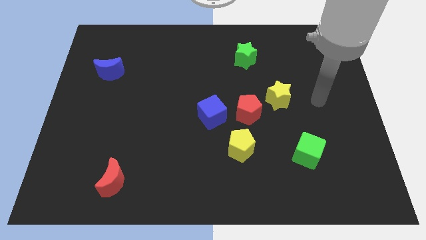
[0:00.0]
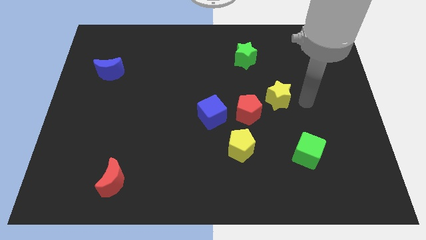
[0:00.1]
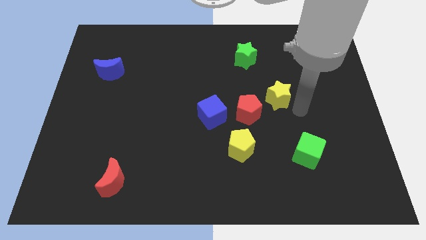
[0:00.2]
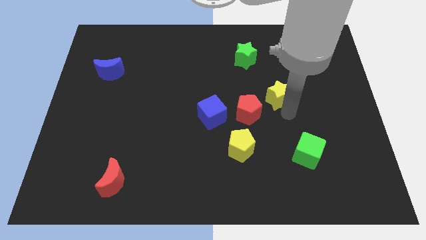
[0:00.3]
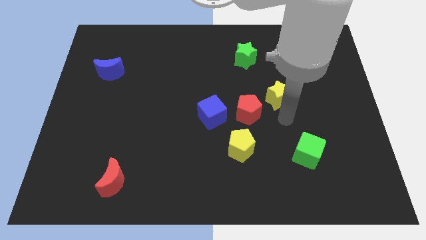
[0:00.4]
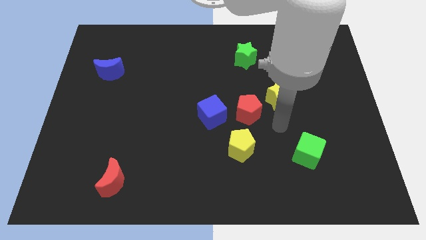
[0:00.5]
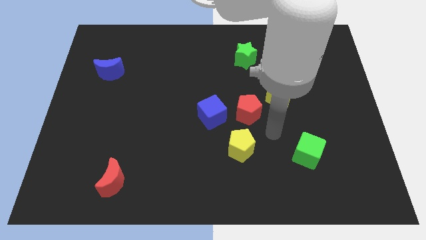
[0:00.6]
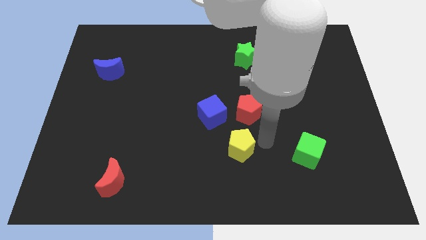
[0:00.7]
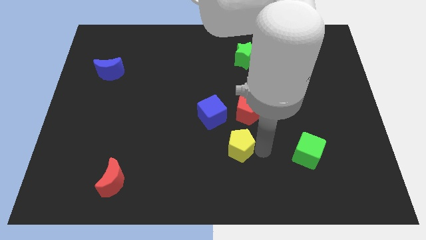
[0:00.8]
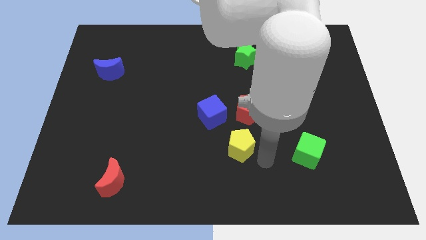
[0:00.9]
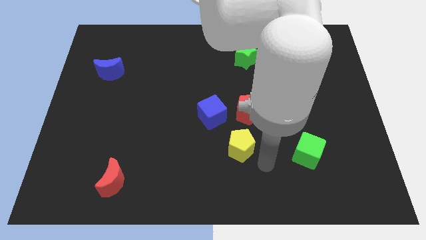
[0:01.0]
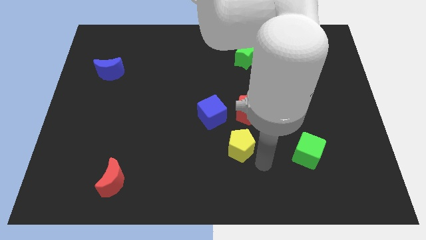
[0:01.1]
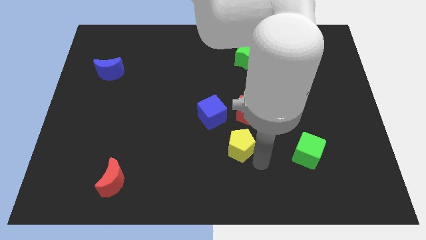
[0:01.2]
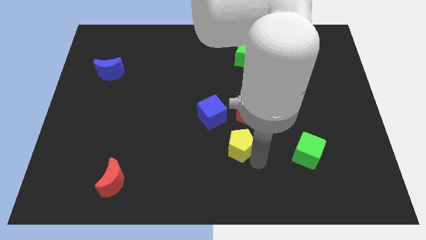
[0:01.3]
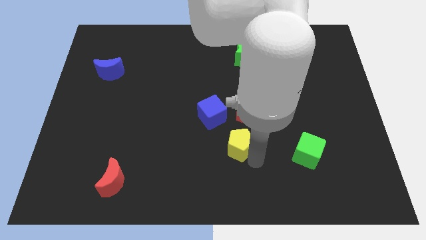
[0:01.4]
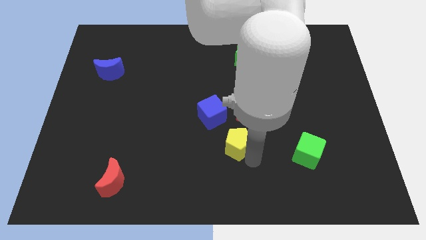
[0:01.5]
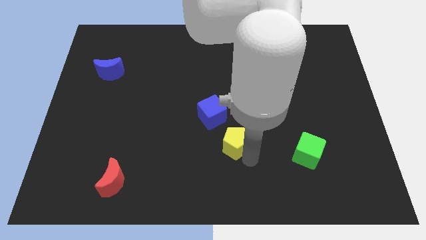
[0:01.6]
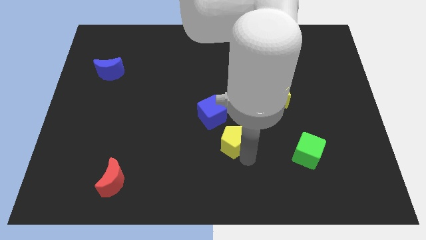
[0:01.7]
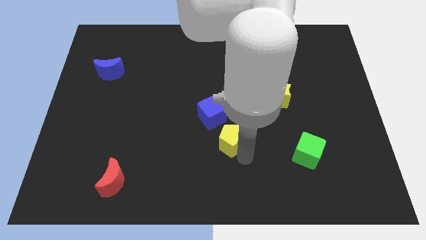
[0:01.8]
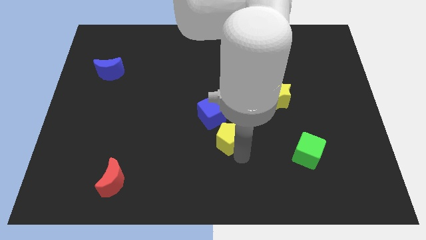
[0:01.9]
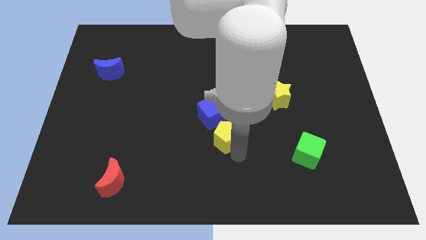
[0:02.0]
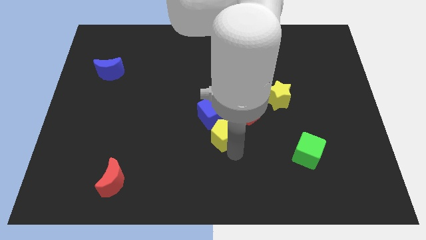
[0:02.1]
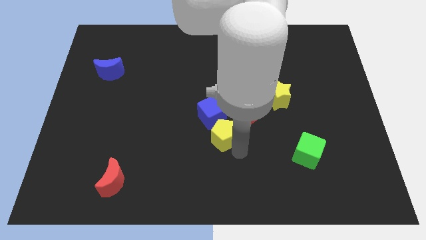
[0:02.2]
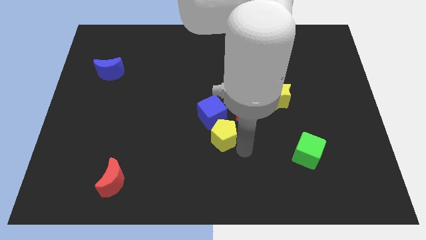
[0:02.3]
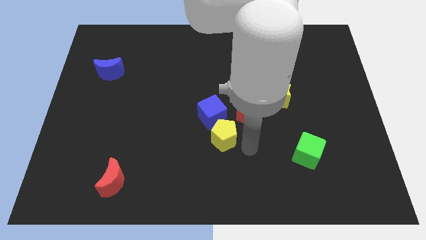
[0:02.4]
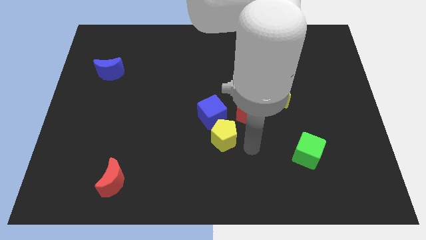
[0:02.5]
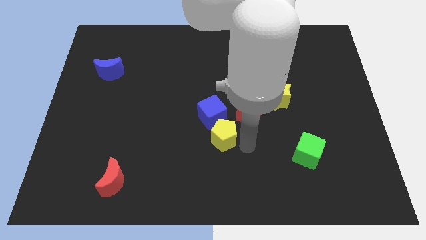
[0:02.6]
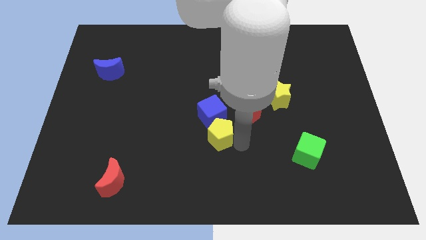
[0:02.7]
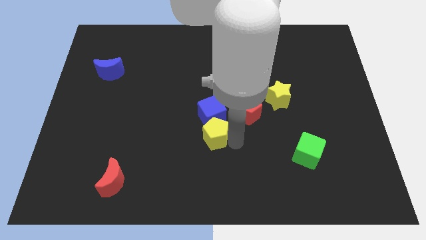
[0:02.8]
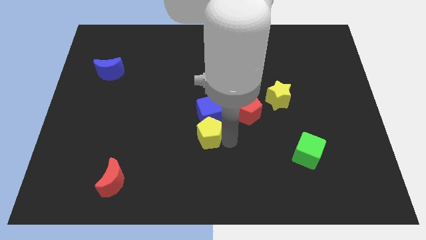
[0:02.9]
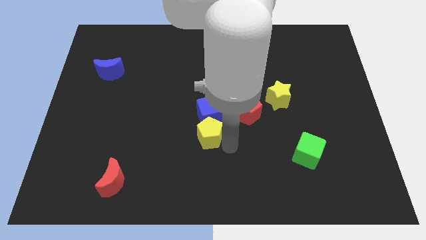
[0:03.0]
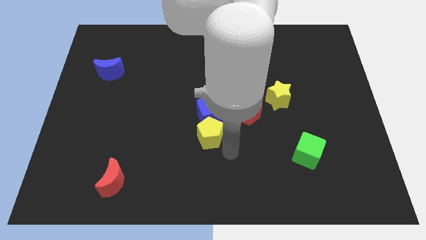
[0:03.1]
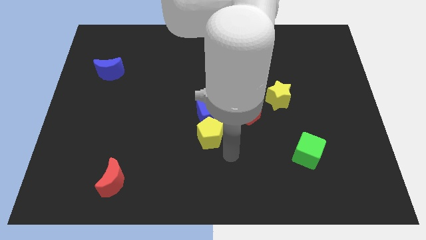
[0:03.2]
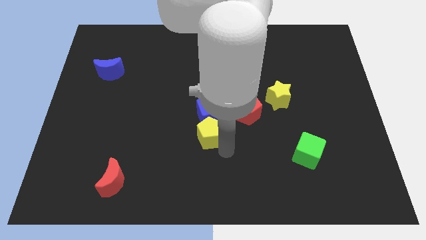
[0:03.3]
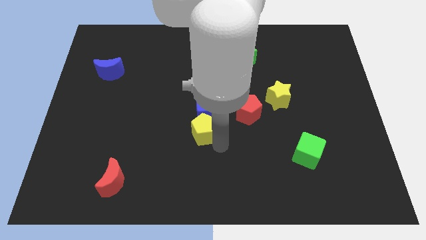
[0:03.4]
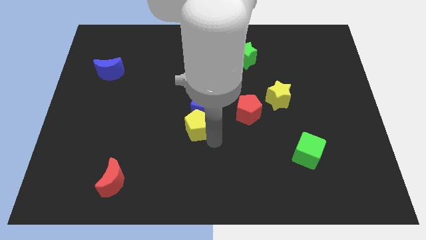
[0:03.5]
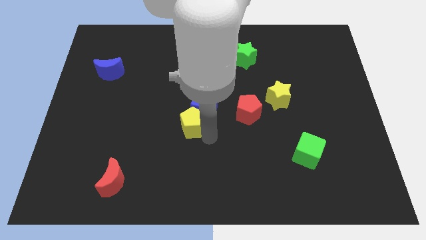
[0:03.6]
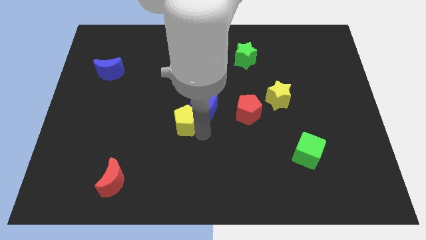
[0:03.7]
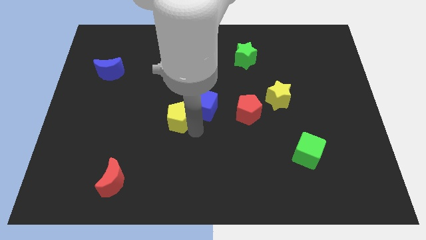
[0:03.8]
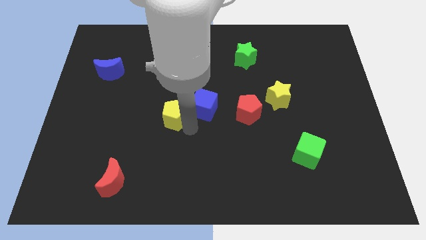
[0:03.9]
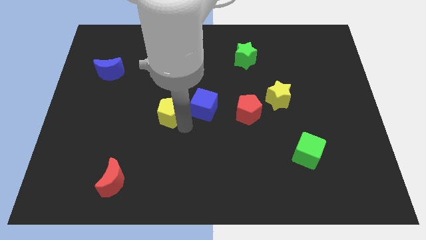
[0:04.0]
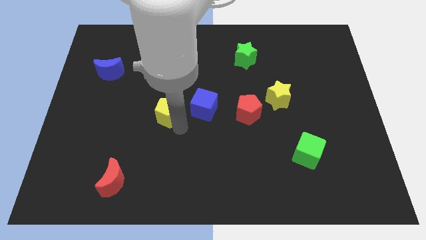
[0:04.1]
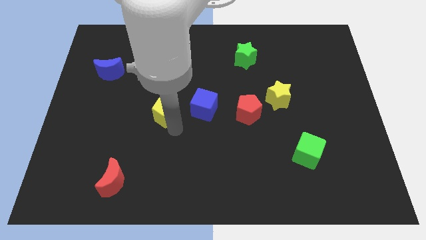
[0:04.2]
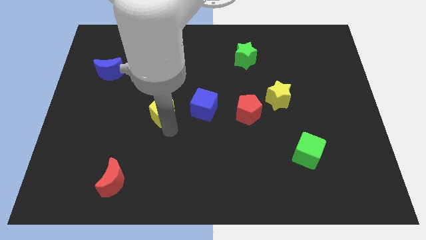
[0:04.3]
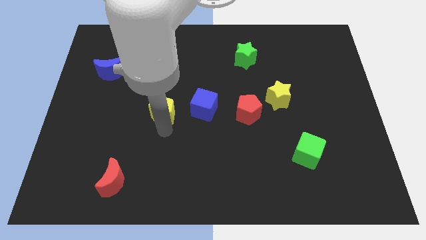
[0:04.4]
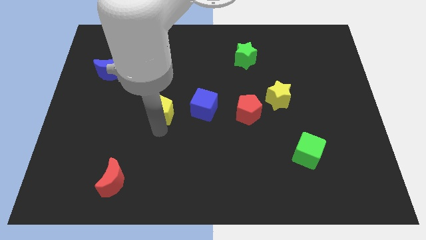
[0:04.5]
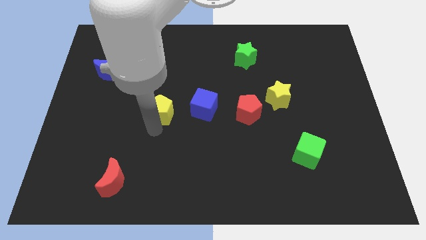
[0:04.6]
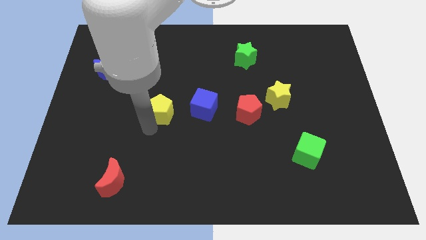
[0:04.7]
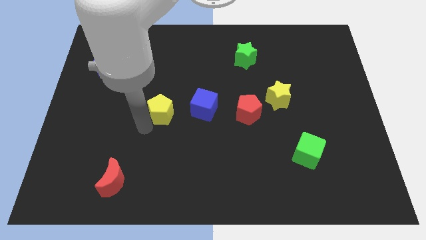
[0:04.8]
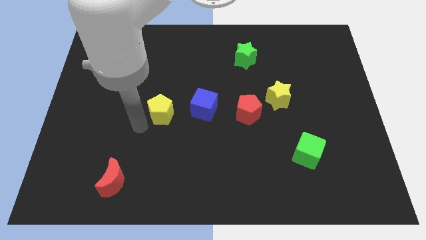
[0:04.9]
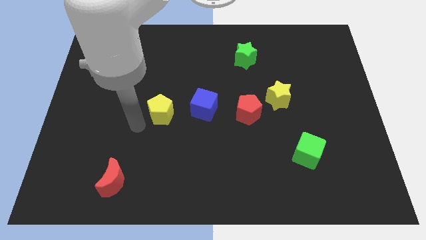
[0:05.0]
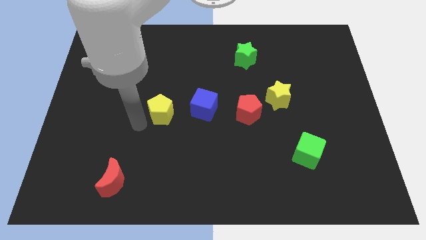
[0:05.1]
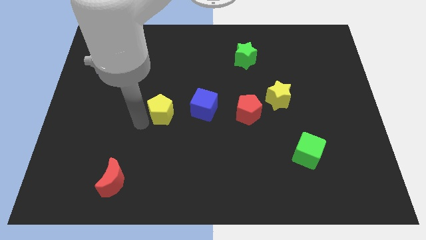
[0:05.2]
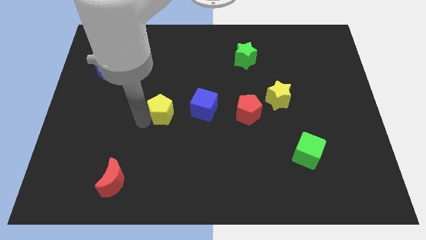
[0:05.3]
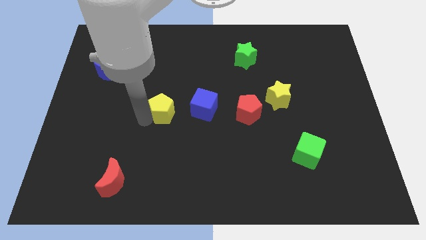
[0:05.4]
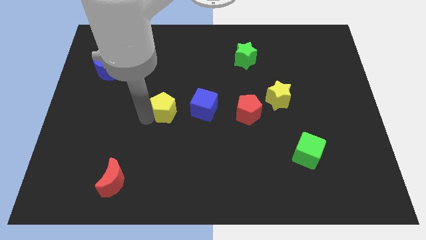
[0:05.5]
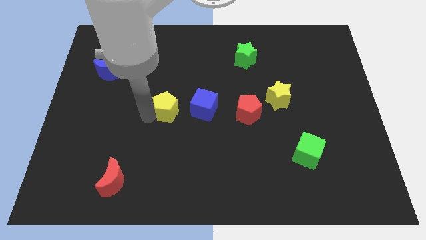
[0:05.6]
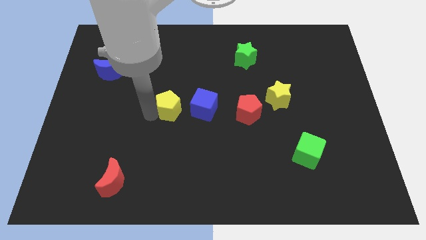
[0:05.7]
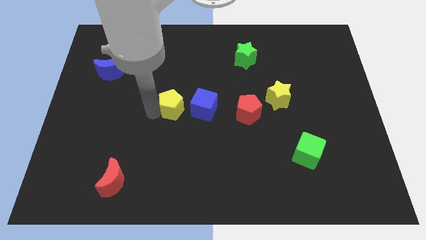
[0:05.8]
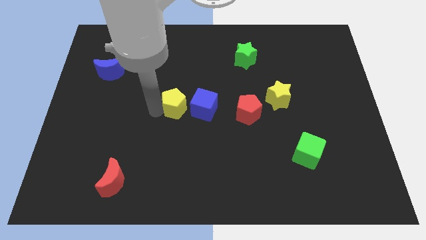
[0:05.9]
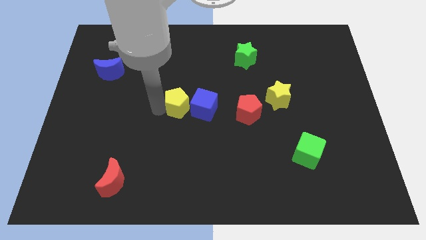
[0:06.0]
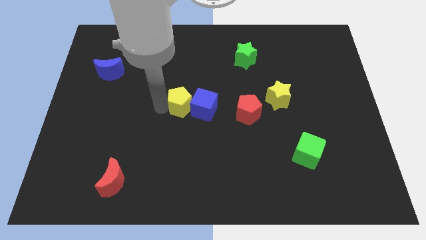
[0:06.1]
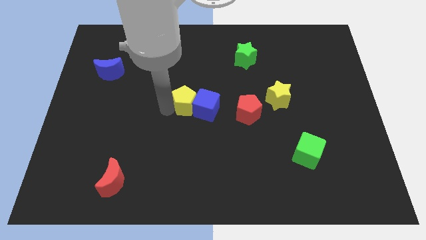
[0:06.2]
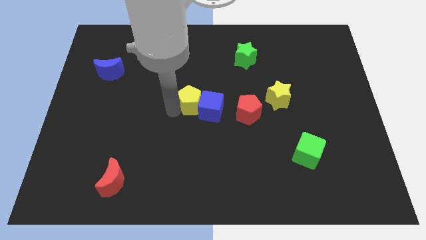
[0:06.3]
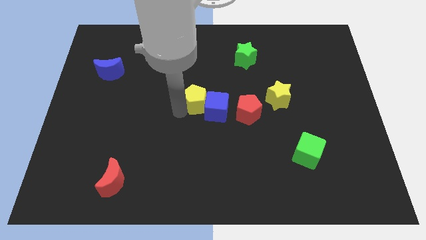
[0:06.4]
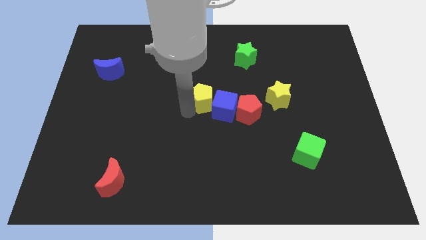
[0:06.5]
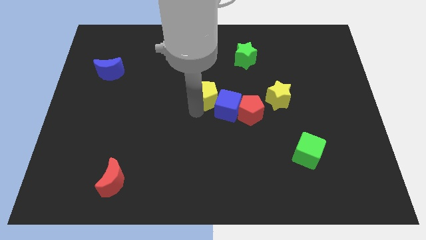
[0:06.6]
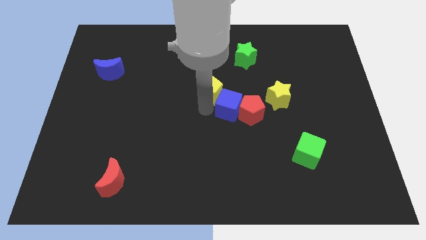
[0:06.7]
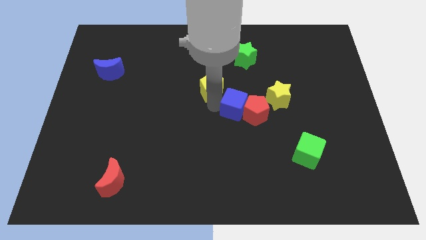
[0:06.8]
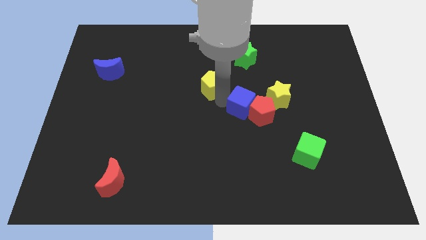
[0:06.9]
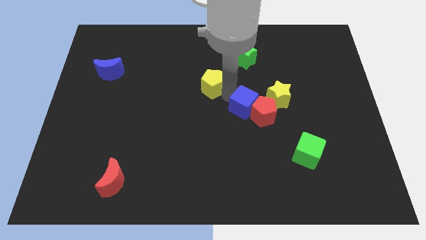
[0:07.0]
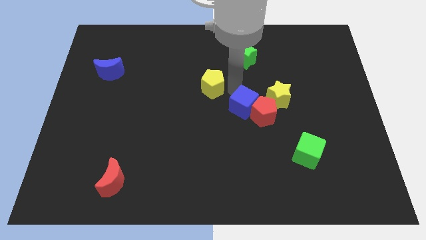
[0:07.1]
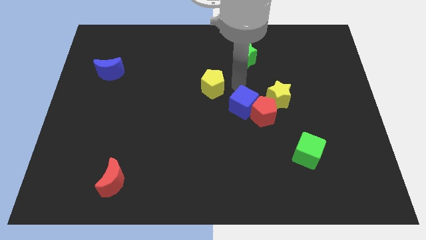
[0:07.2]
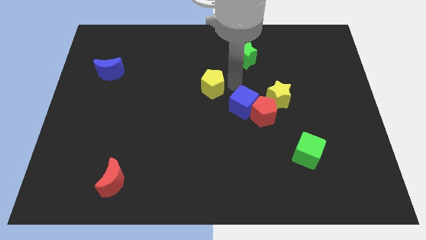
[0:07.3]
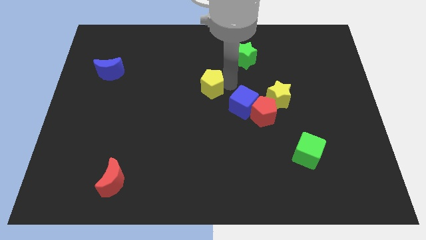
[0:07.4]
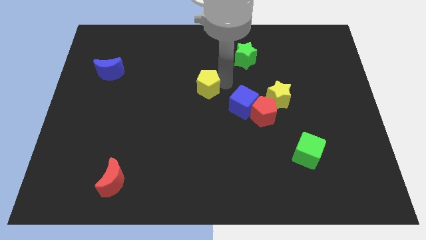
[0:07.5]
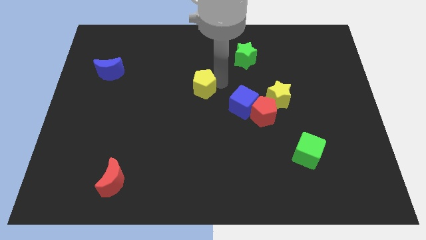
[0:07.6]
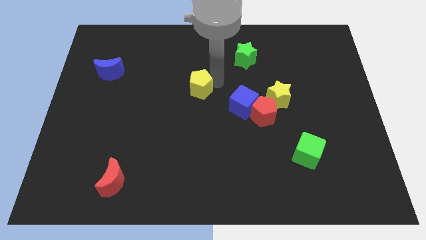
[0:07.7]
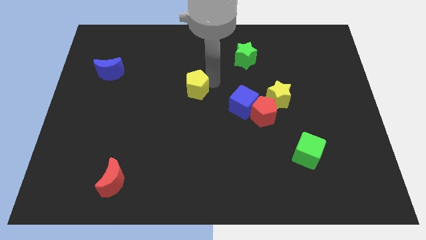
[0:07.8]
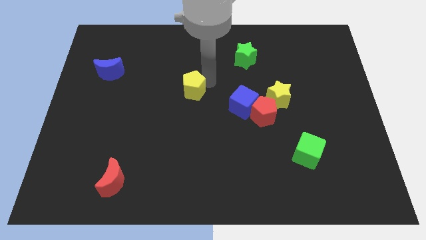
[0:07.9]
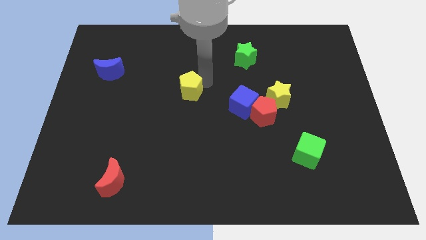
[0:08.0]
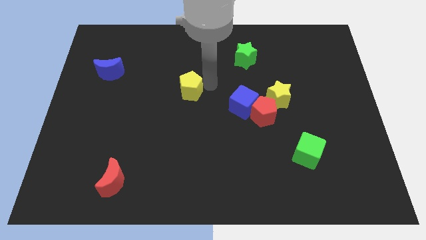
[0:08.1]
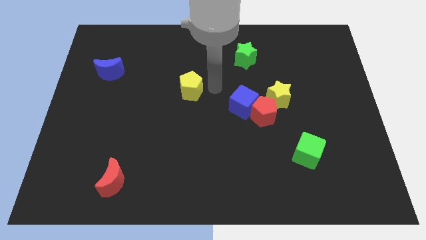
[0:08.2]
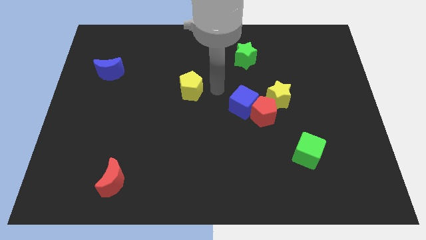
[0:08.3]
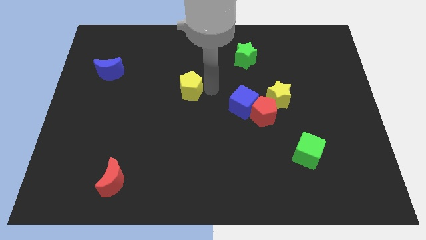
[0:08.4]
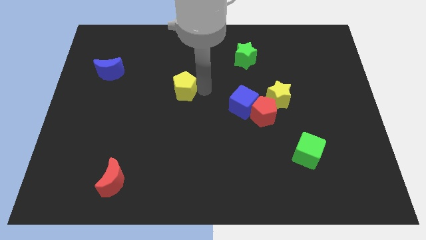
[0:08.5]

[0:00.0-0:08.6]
move the yellow pentagon upwards and then left
